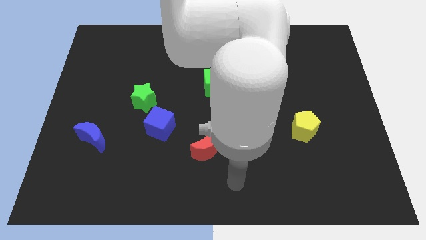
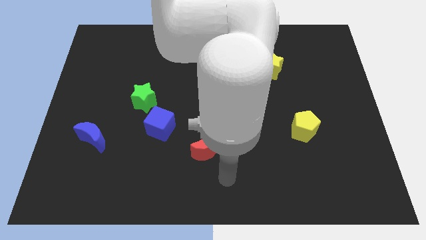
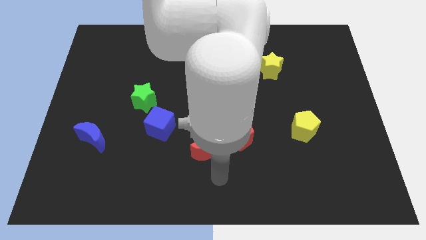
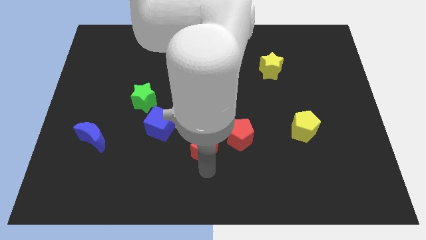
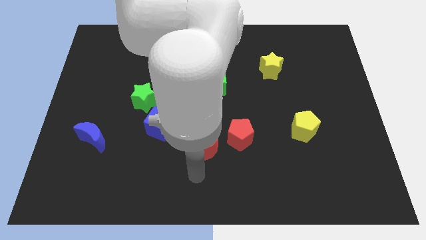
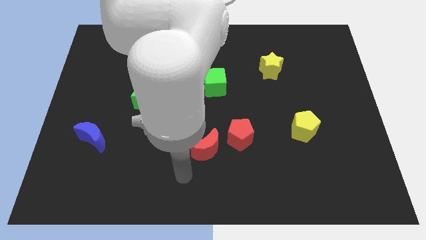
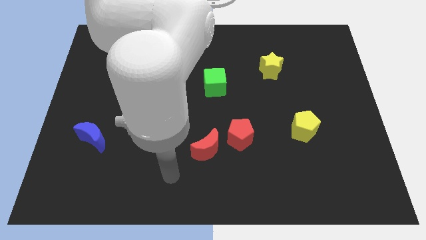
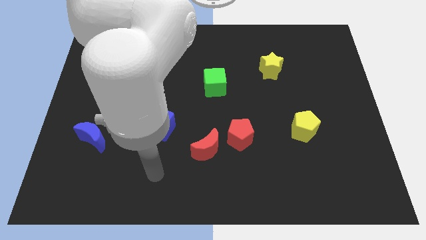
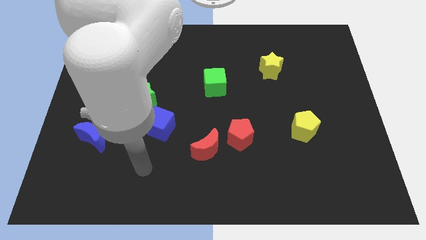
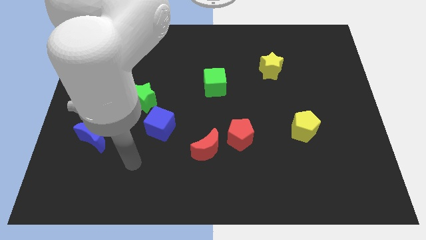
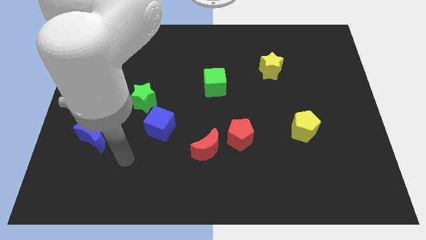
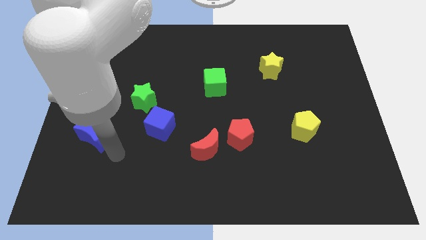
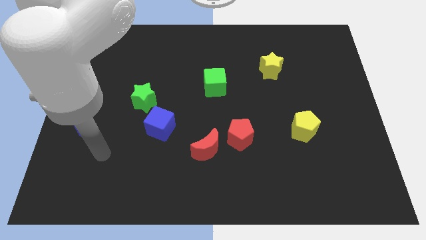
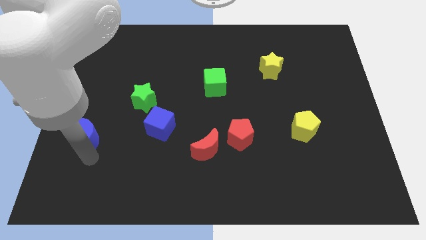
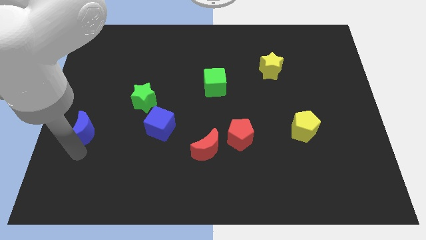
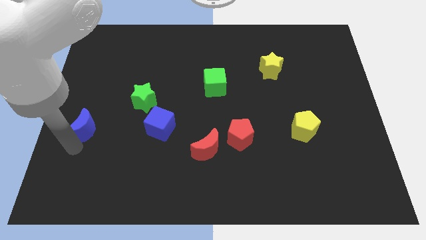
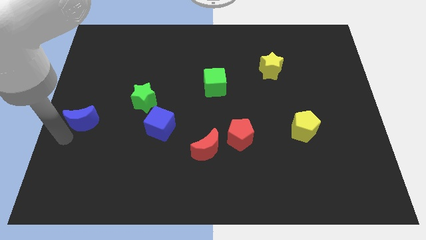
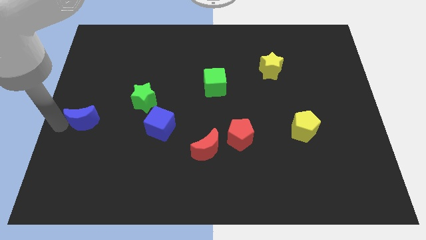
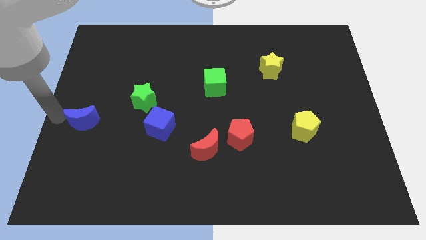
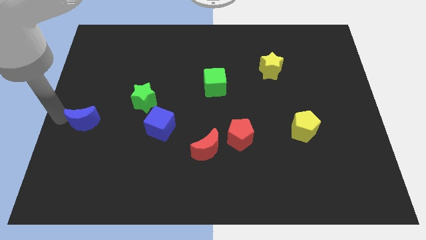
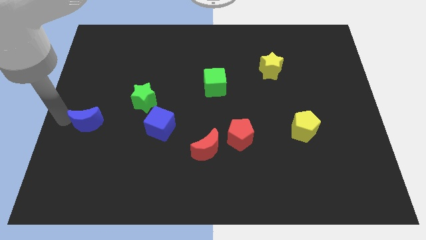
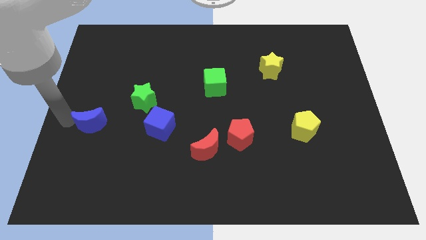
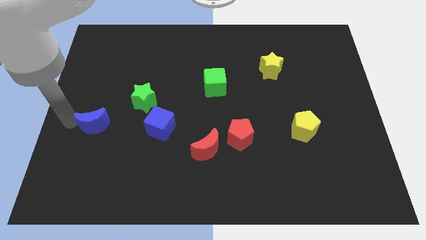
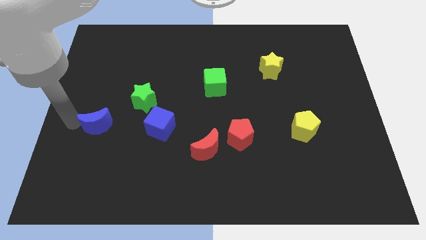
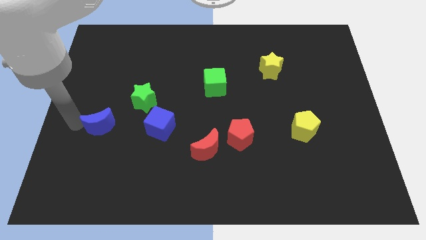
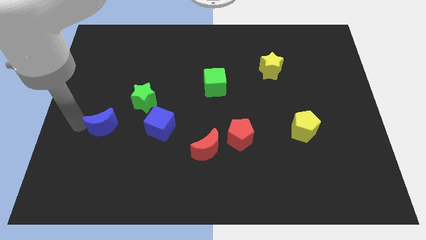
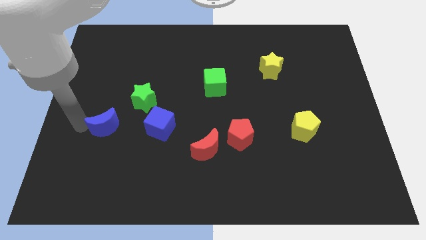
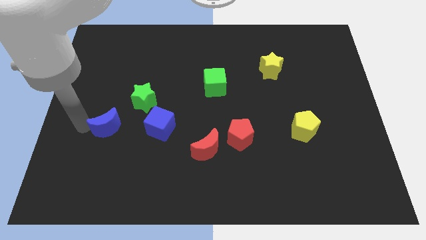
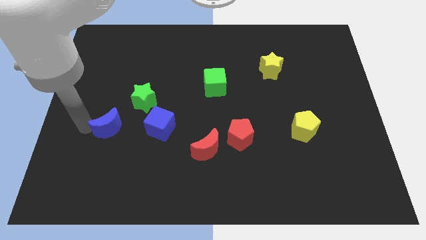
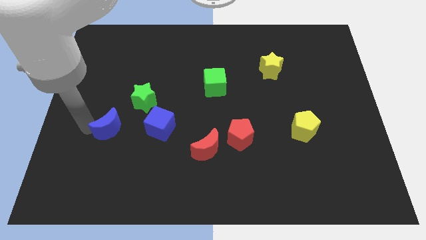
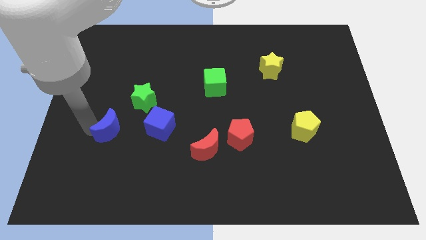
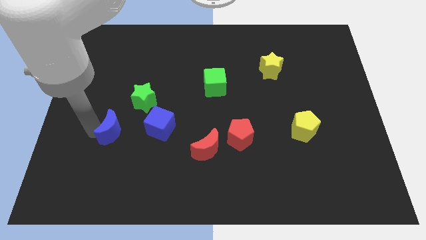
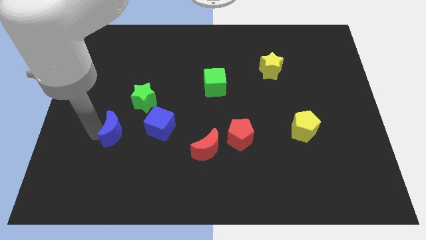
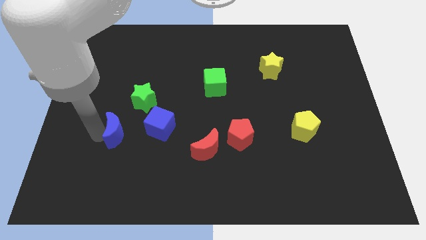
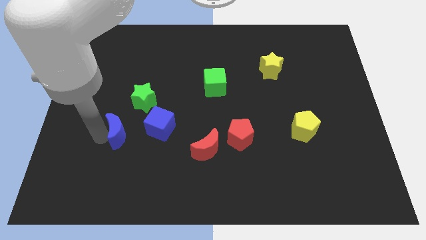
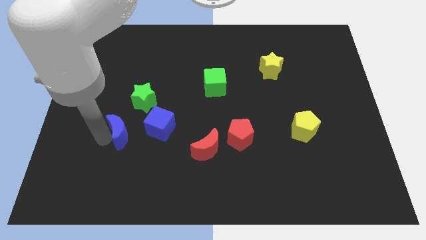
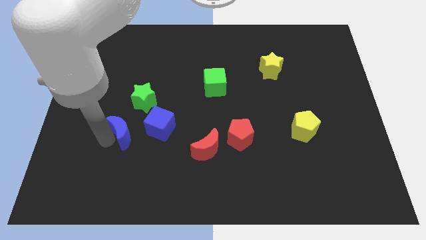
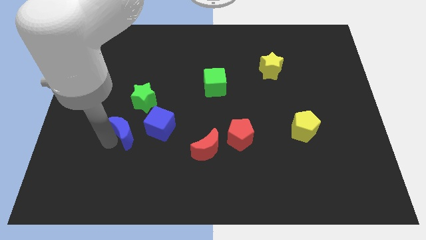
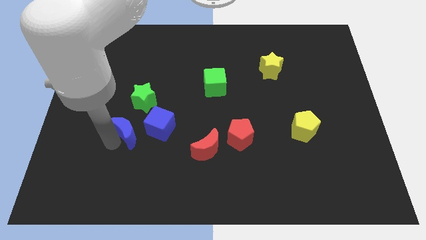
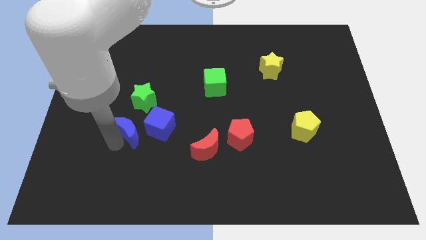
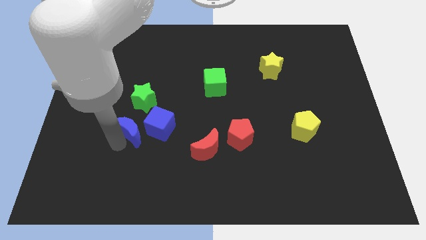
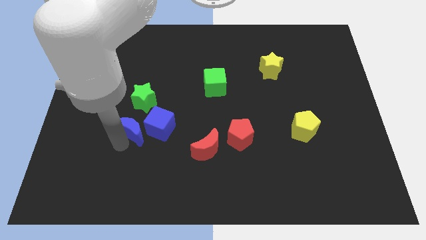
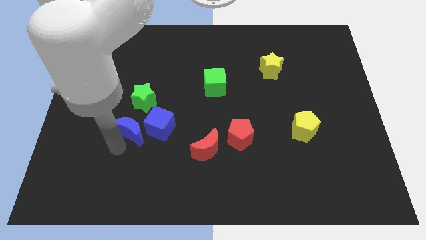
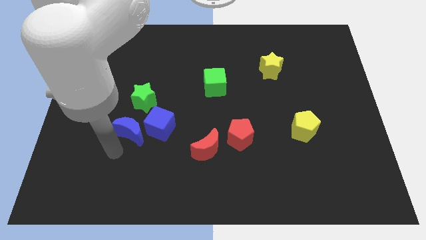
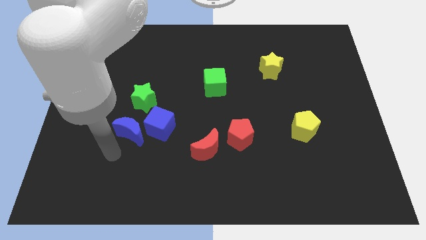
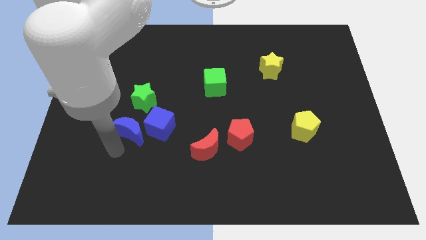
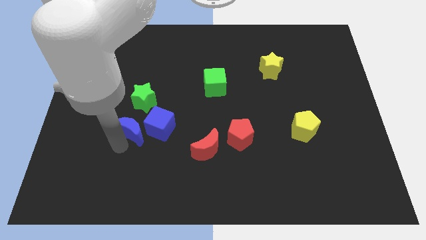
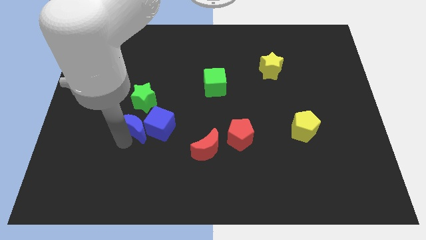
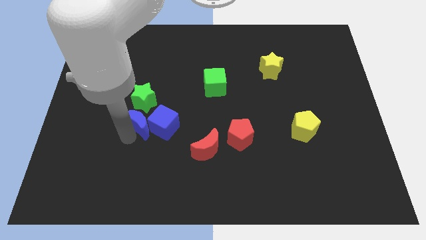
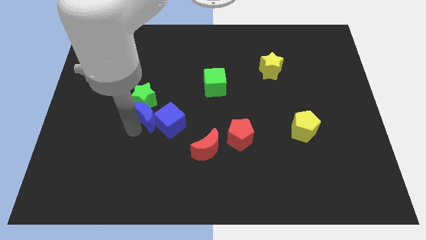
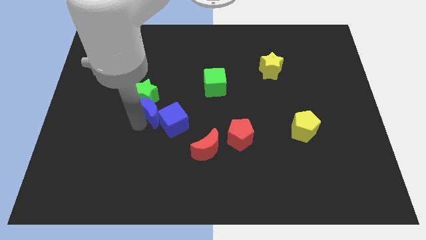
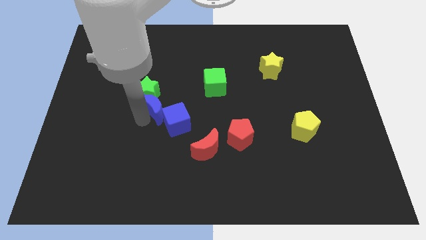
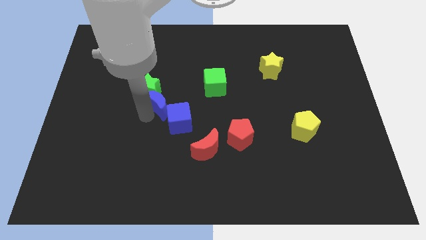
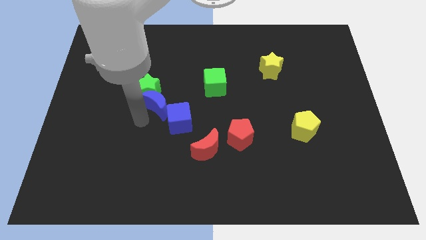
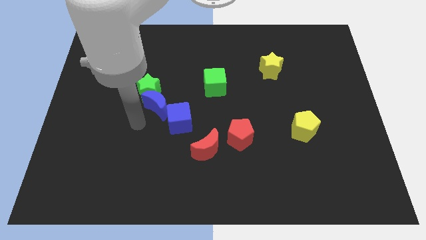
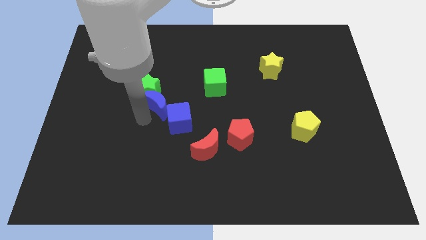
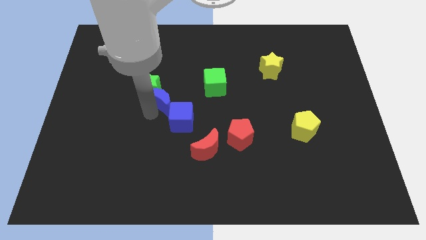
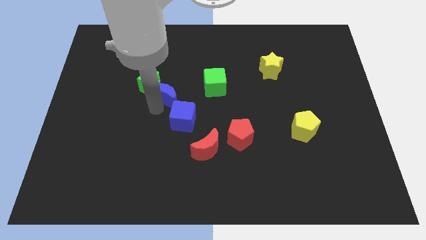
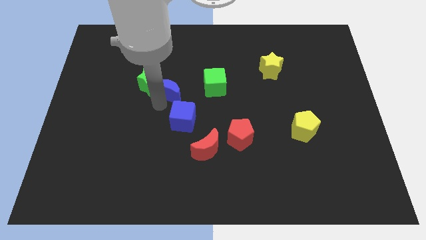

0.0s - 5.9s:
push the blue moon up and to the right diagonally

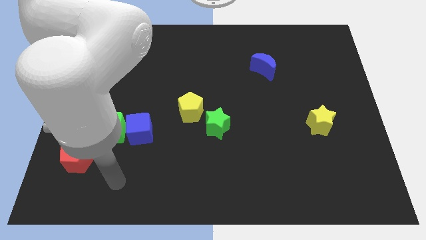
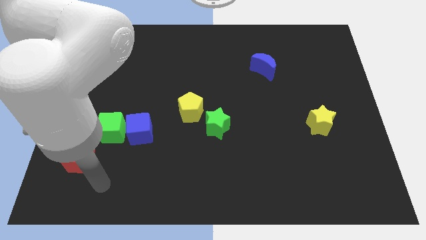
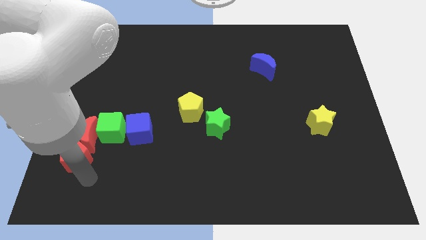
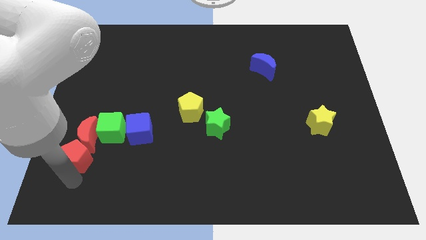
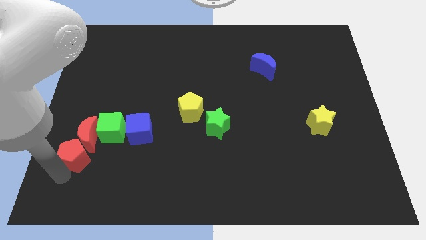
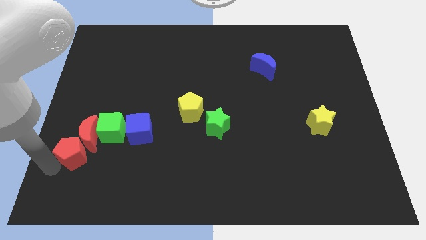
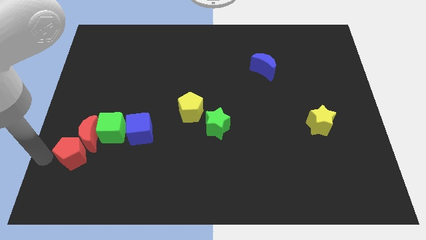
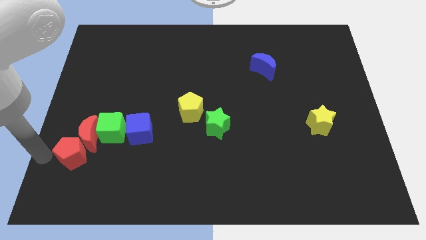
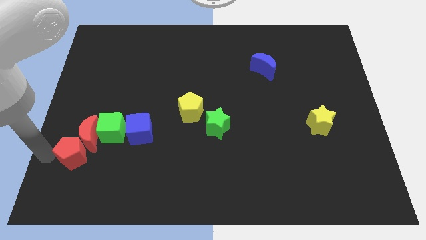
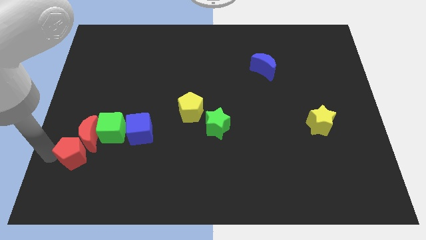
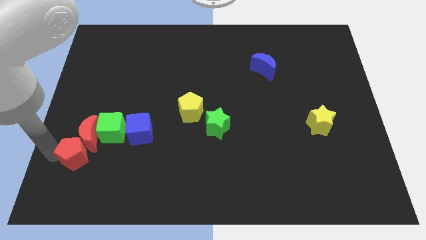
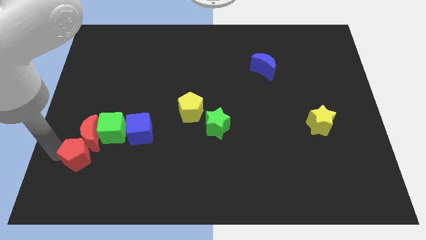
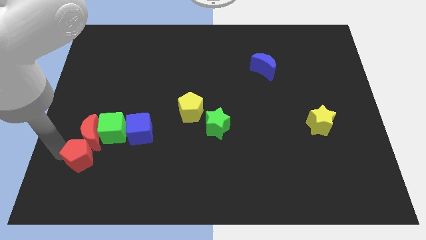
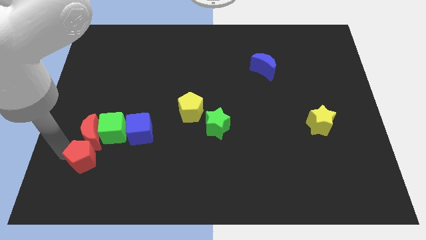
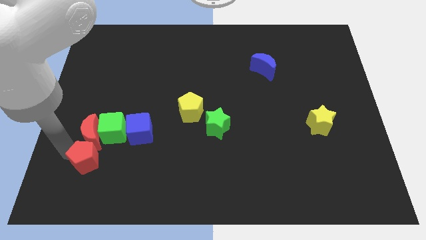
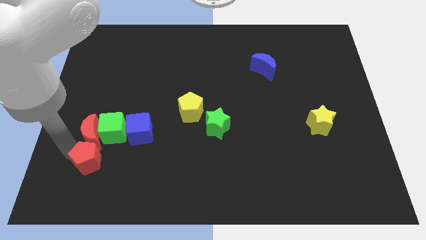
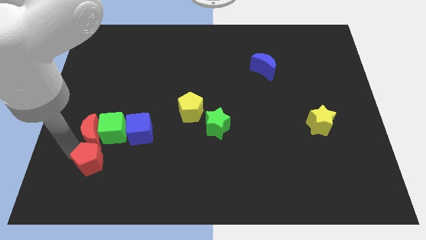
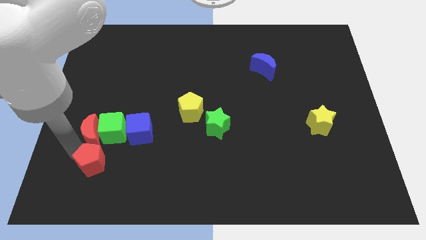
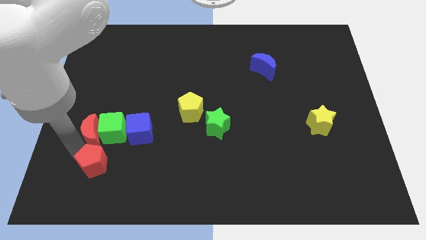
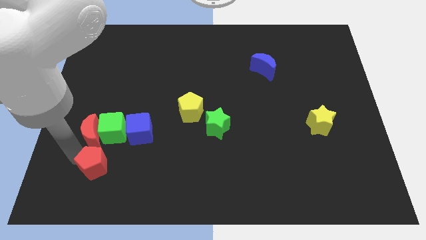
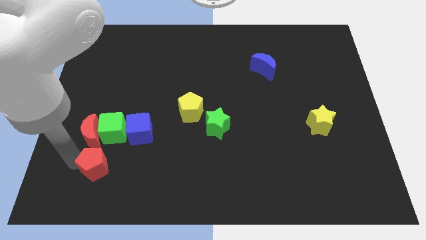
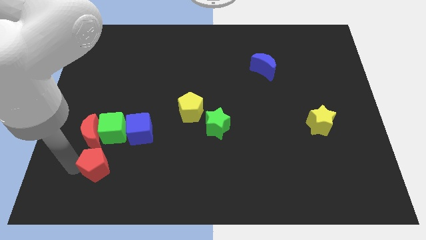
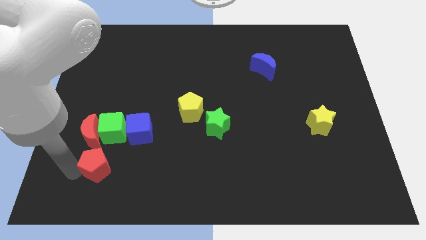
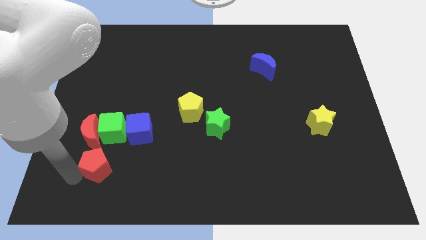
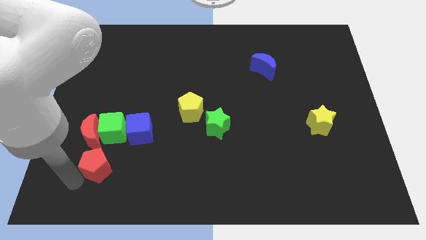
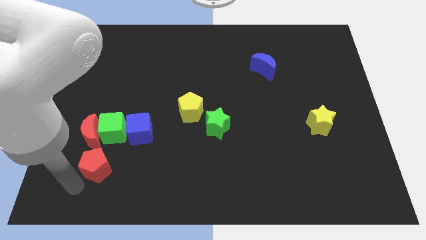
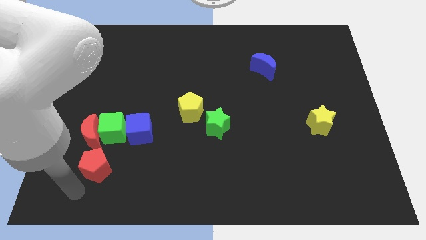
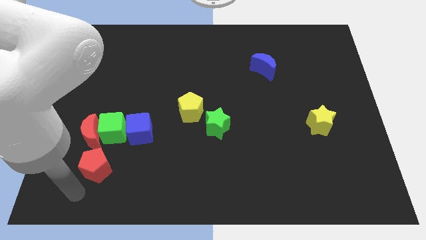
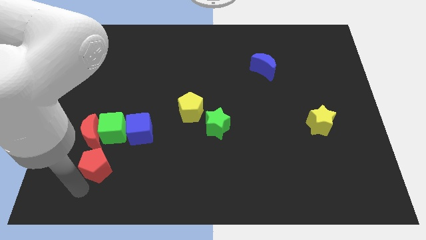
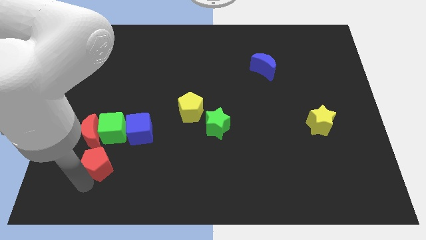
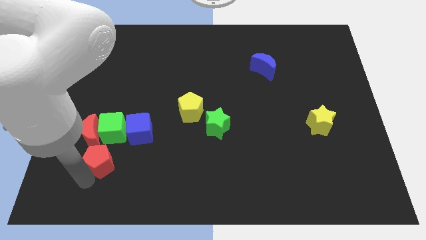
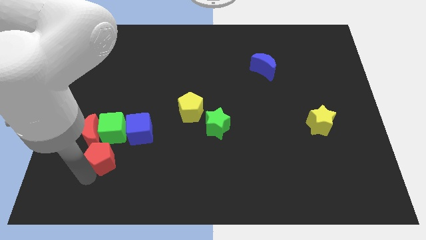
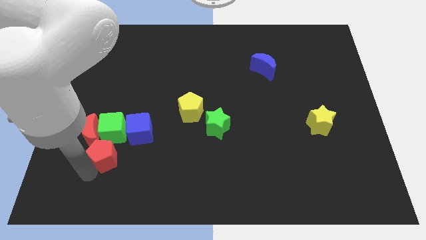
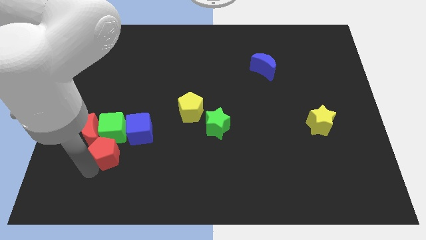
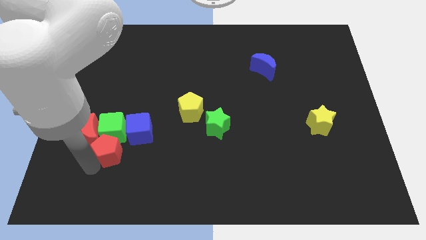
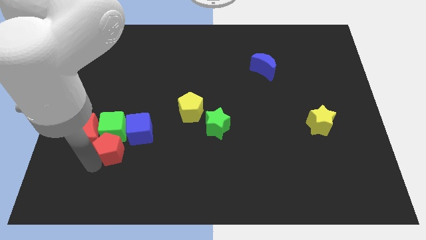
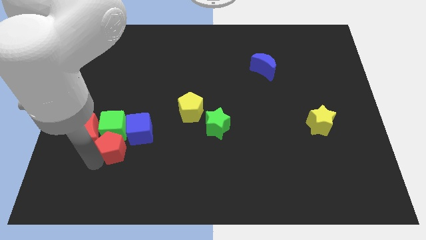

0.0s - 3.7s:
slightly push the red pentagon to the right
